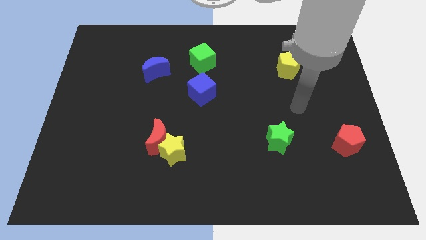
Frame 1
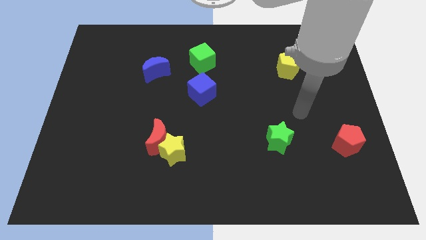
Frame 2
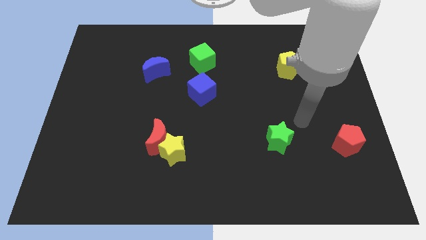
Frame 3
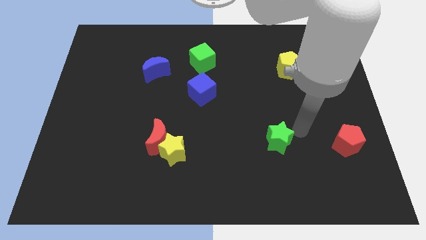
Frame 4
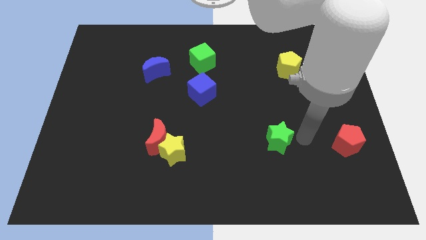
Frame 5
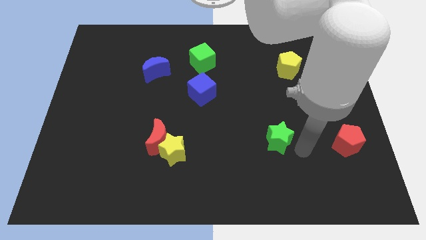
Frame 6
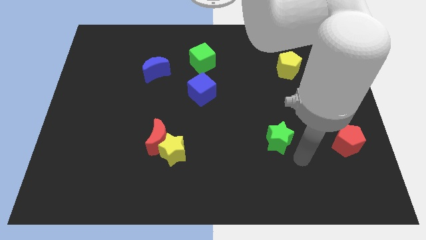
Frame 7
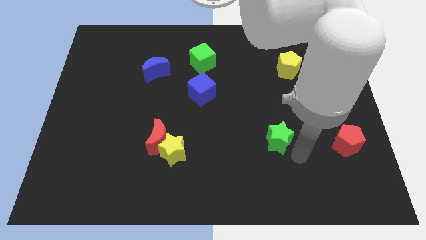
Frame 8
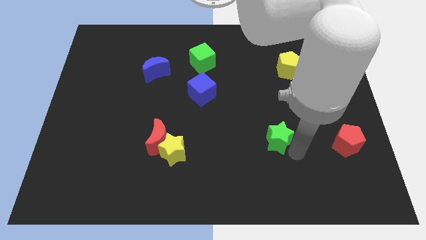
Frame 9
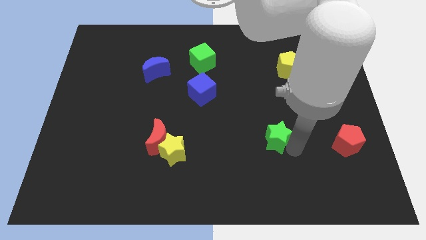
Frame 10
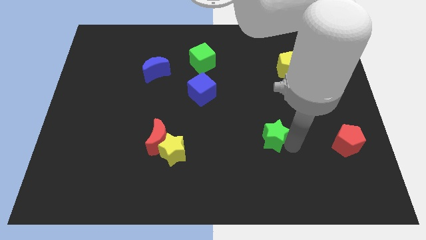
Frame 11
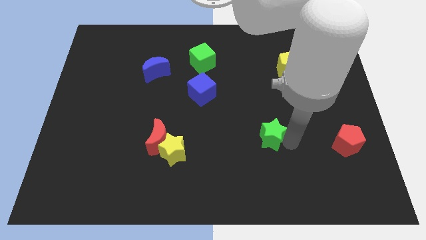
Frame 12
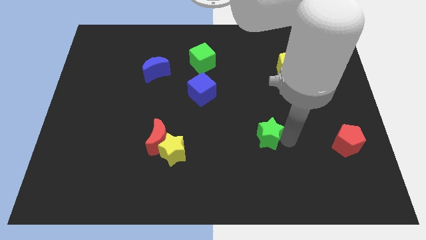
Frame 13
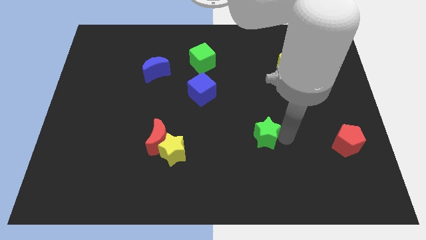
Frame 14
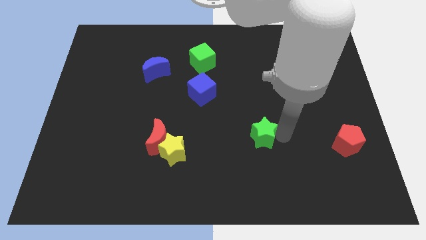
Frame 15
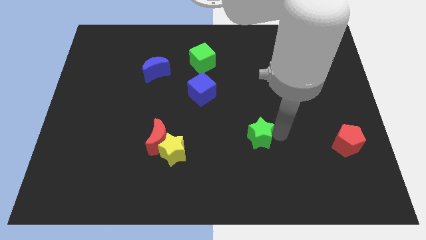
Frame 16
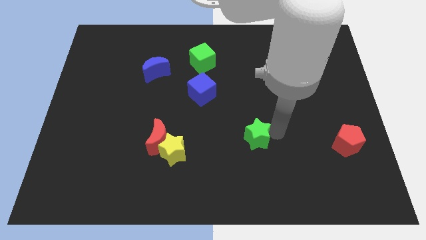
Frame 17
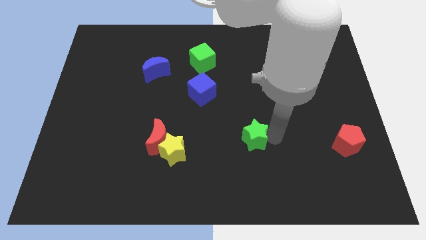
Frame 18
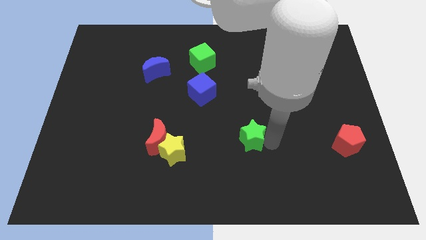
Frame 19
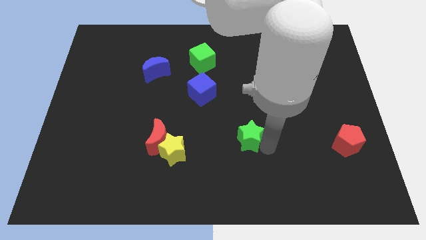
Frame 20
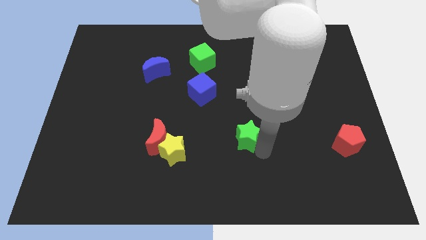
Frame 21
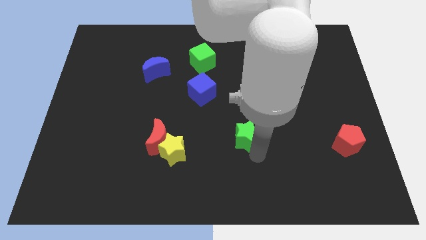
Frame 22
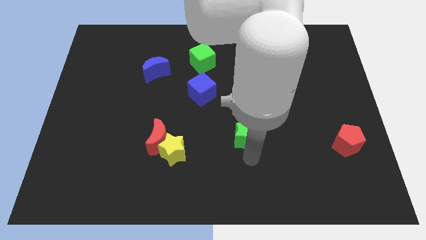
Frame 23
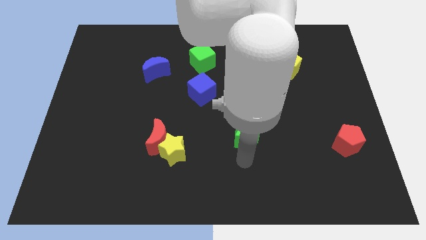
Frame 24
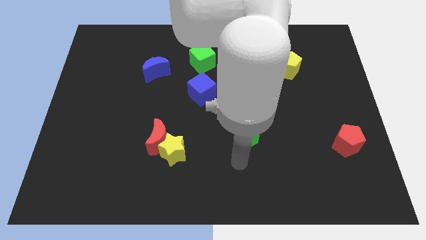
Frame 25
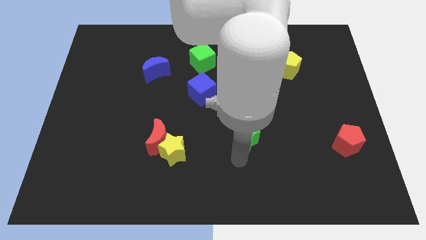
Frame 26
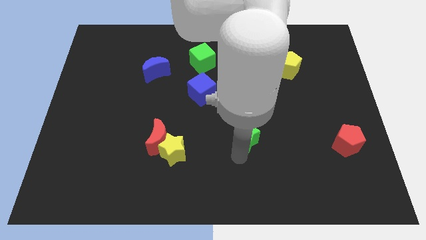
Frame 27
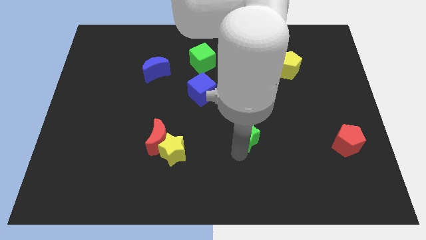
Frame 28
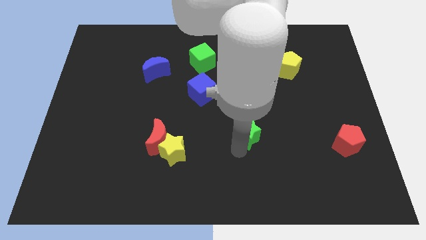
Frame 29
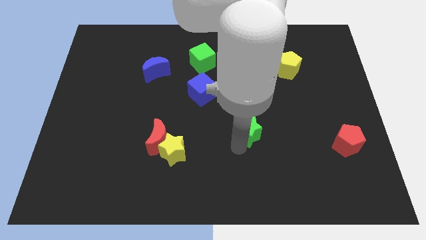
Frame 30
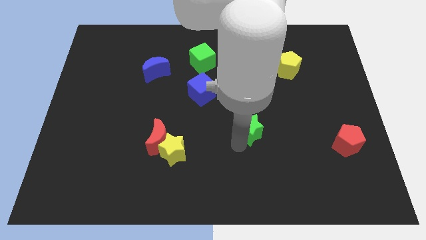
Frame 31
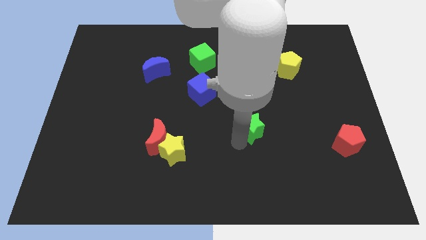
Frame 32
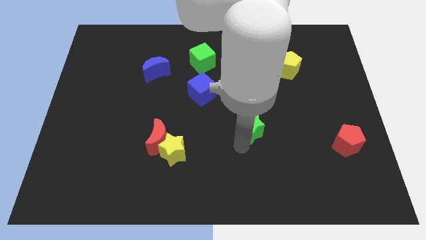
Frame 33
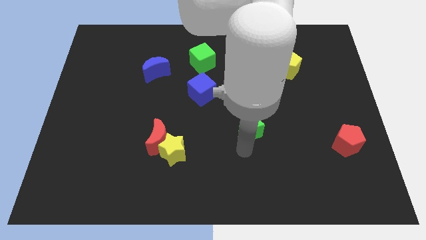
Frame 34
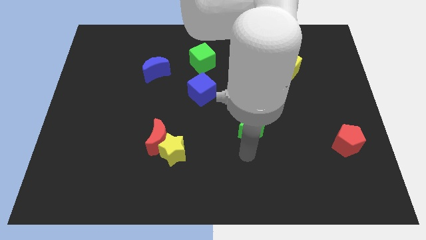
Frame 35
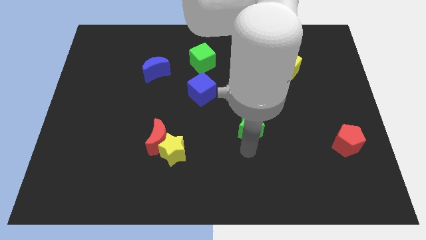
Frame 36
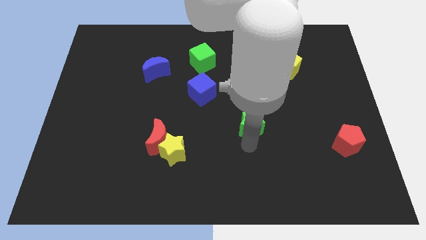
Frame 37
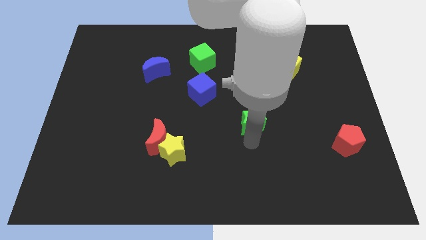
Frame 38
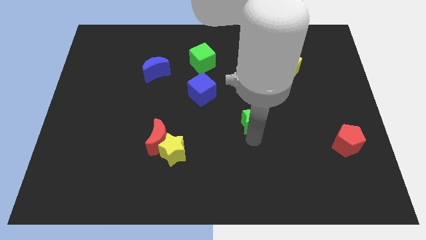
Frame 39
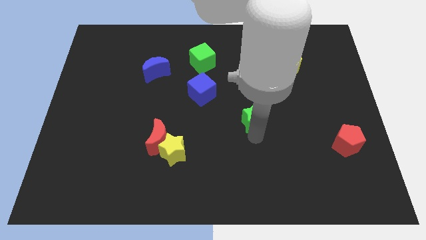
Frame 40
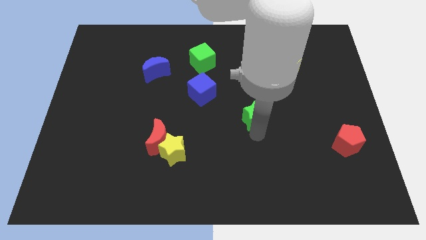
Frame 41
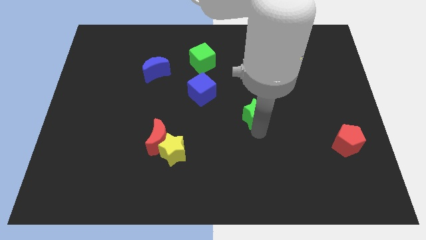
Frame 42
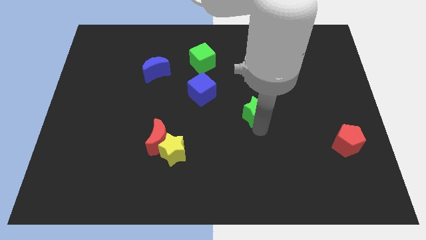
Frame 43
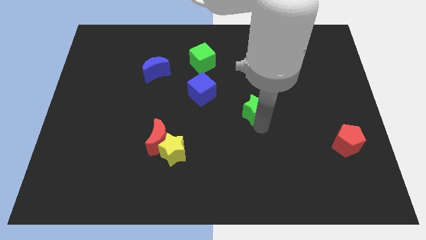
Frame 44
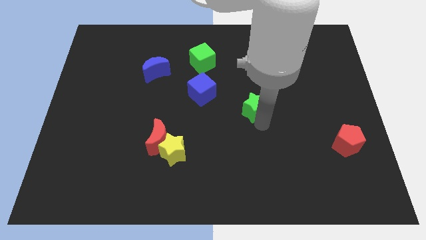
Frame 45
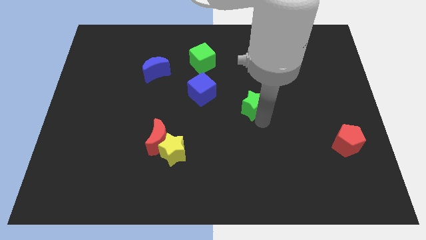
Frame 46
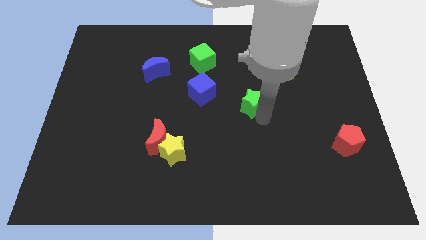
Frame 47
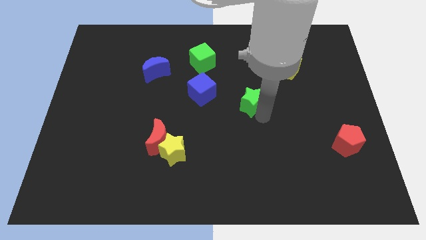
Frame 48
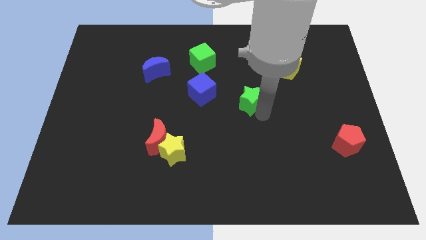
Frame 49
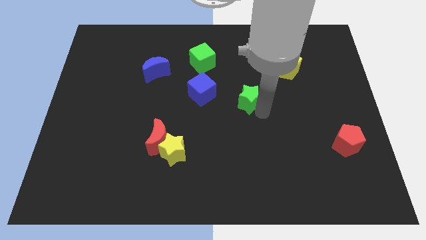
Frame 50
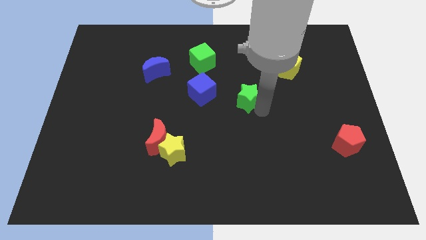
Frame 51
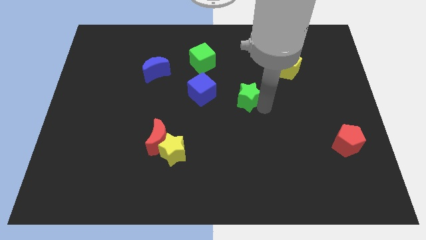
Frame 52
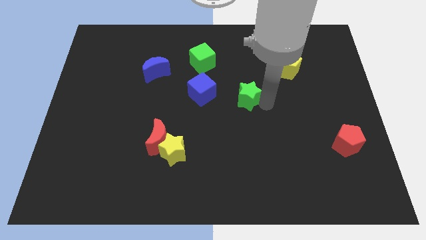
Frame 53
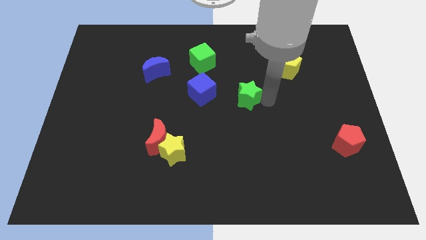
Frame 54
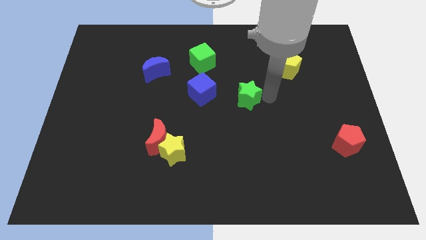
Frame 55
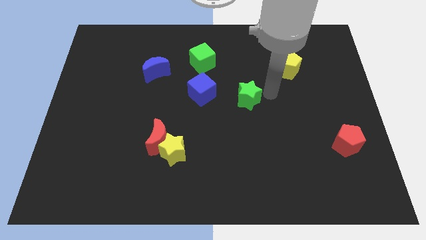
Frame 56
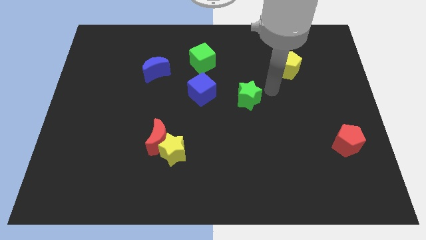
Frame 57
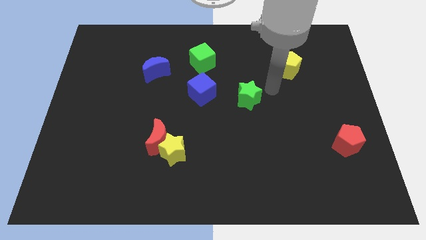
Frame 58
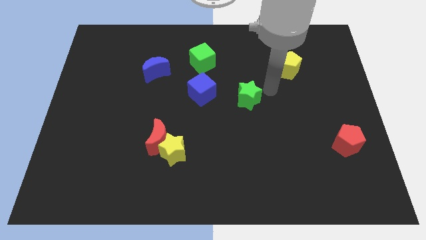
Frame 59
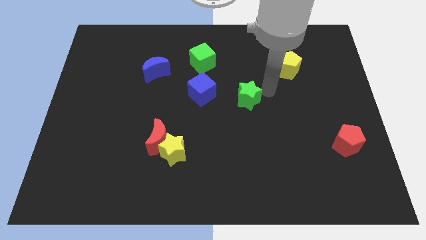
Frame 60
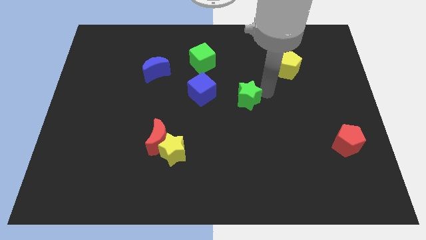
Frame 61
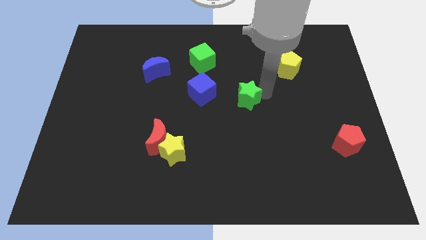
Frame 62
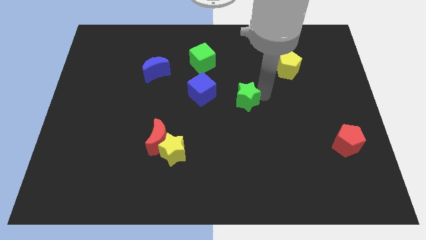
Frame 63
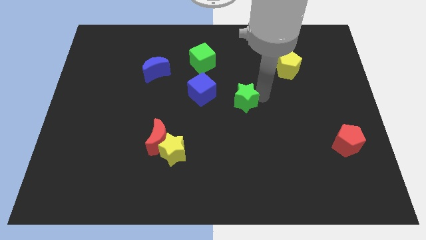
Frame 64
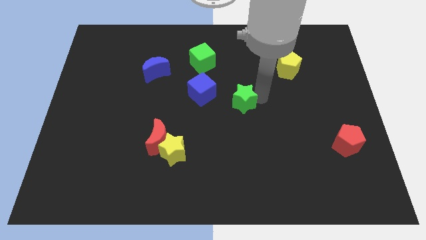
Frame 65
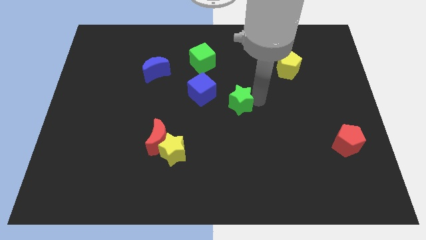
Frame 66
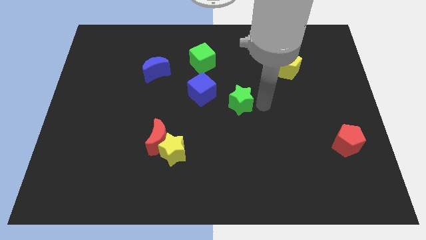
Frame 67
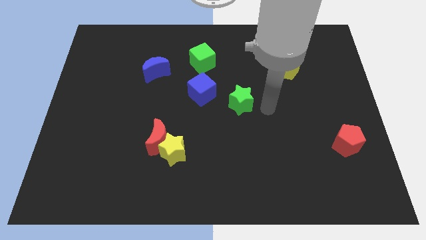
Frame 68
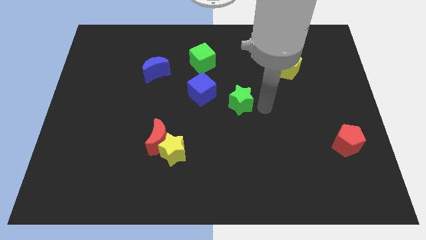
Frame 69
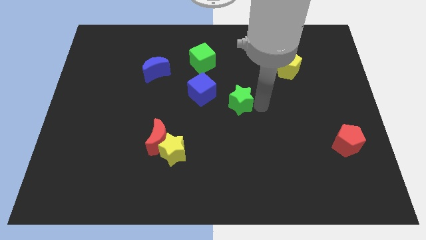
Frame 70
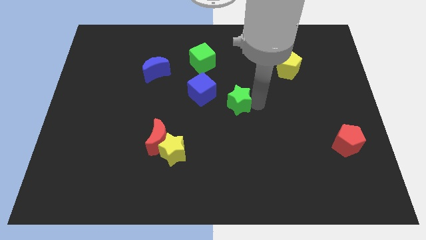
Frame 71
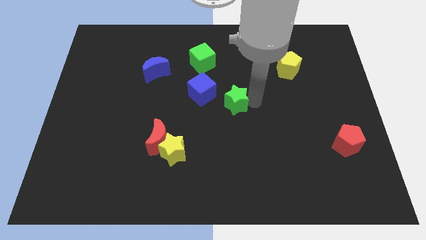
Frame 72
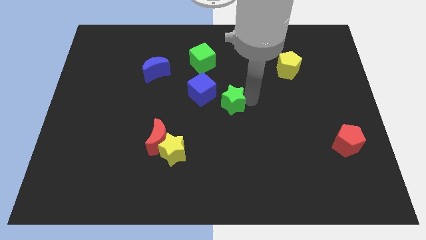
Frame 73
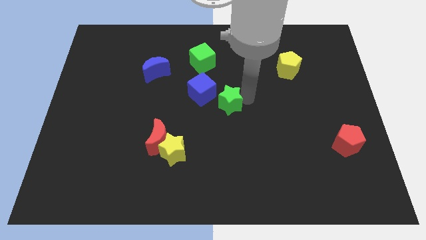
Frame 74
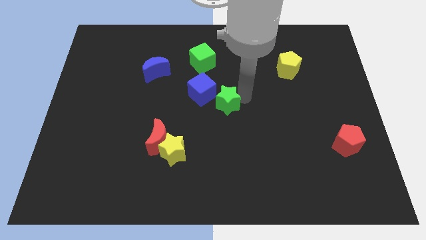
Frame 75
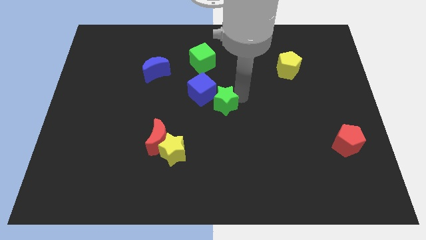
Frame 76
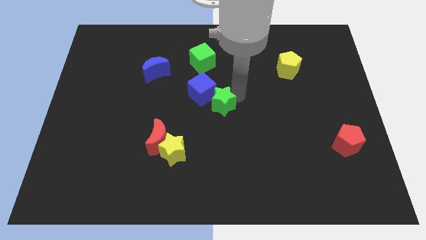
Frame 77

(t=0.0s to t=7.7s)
slide the green star to the blue cube
